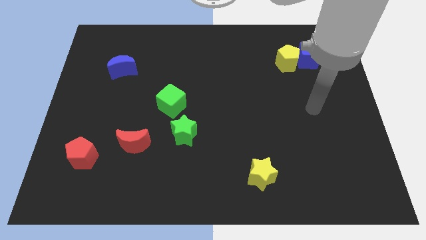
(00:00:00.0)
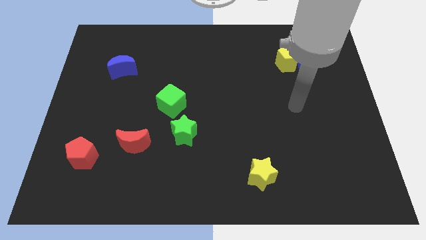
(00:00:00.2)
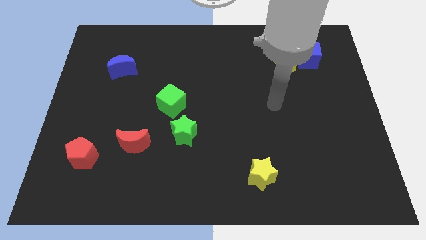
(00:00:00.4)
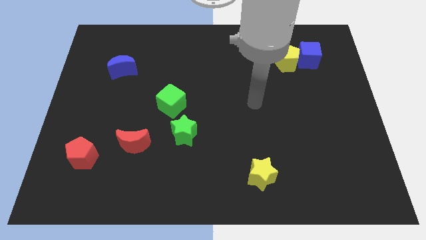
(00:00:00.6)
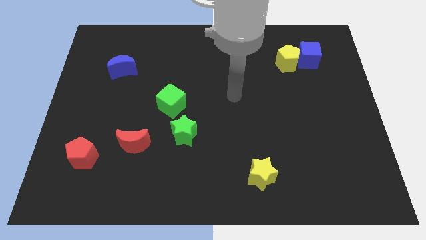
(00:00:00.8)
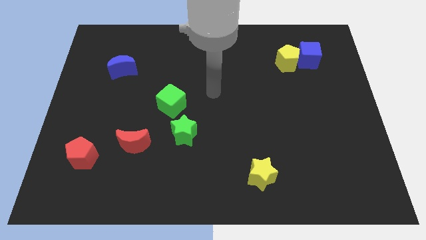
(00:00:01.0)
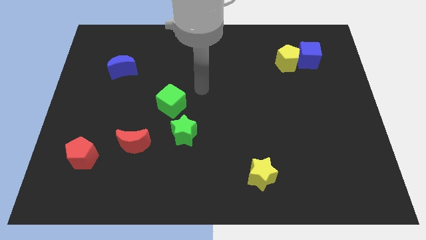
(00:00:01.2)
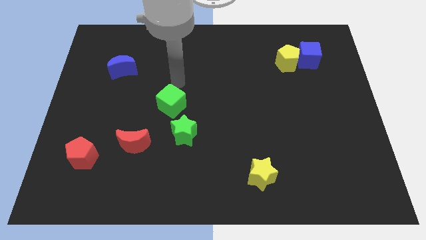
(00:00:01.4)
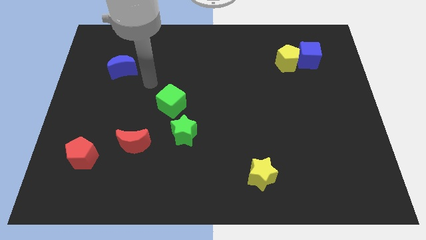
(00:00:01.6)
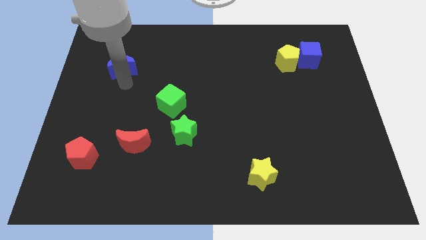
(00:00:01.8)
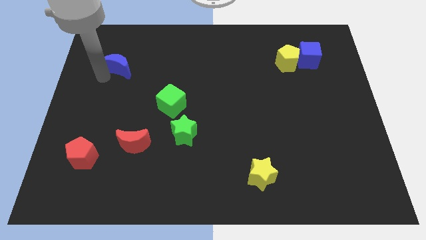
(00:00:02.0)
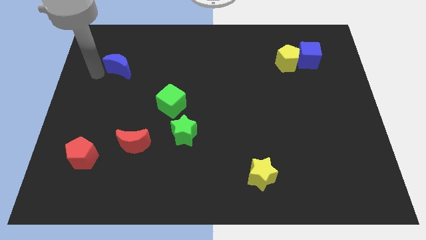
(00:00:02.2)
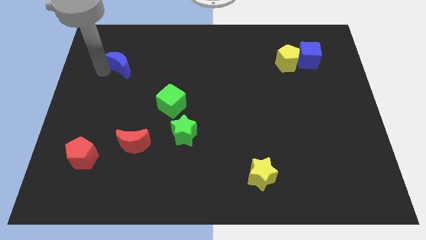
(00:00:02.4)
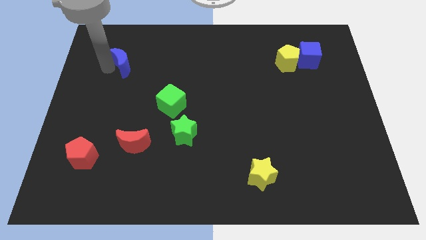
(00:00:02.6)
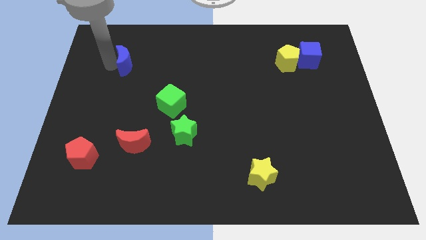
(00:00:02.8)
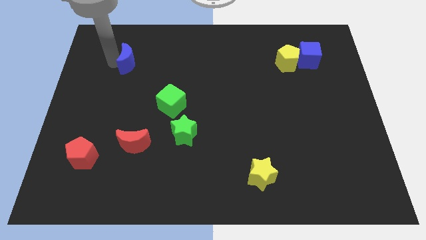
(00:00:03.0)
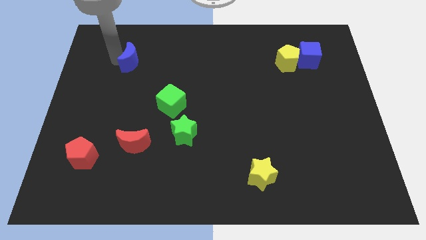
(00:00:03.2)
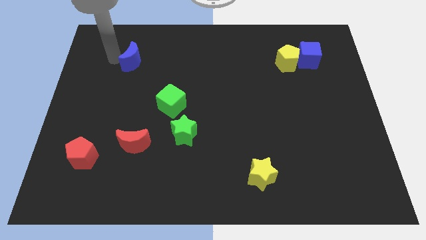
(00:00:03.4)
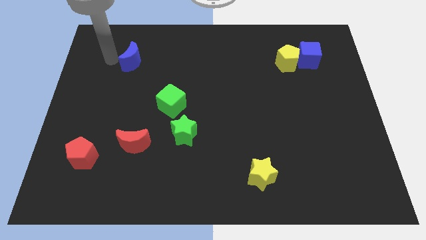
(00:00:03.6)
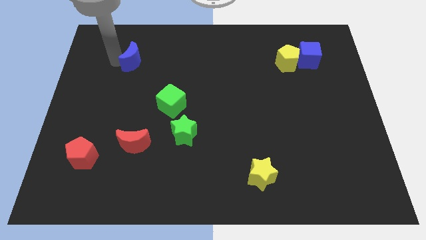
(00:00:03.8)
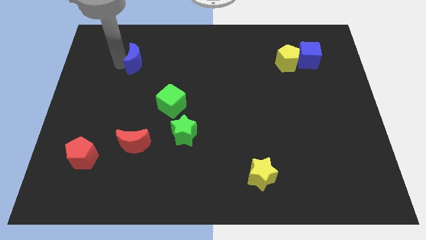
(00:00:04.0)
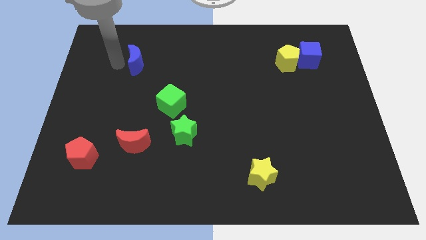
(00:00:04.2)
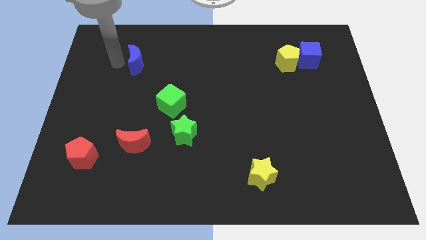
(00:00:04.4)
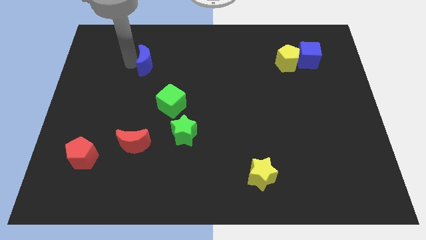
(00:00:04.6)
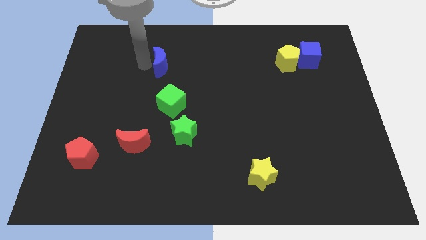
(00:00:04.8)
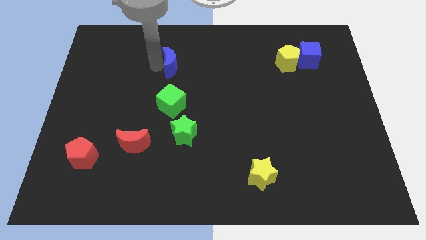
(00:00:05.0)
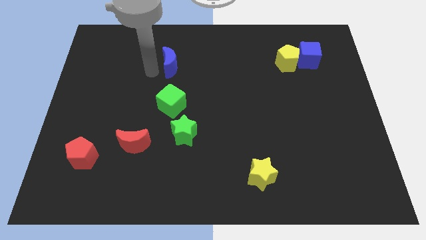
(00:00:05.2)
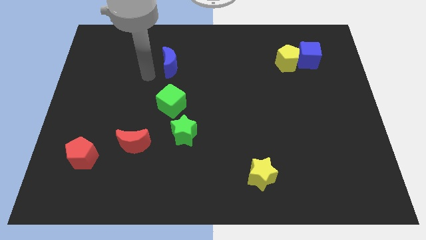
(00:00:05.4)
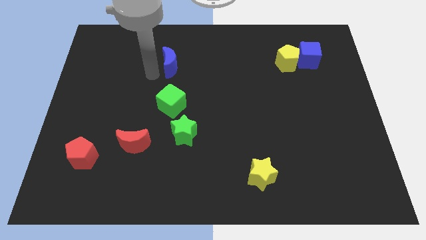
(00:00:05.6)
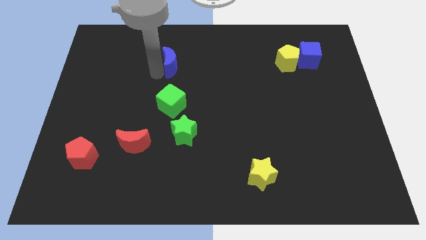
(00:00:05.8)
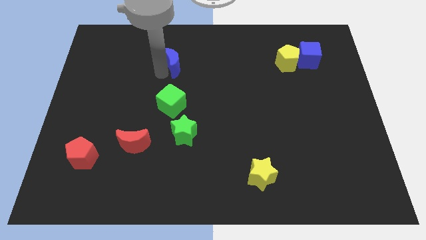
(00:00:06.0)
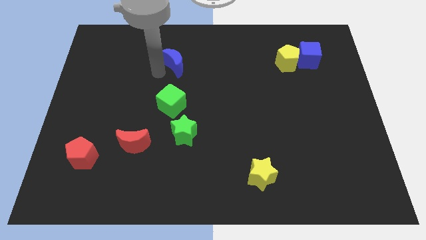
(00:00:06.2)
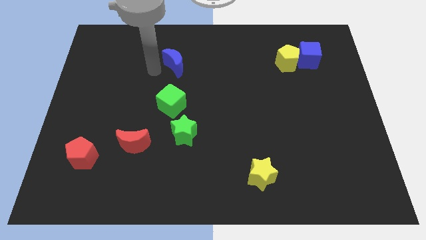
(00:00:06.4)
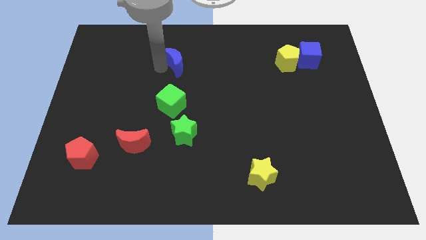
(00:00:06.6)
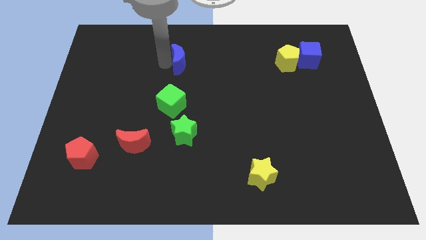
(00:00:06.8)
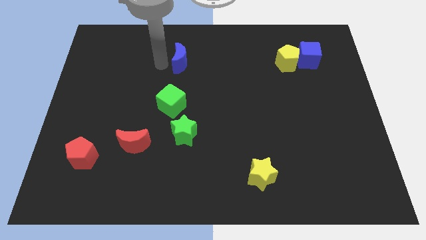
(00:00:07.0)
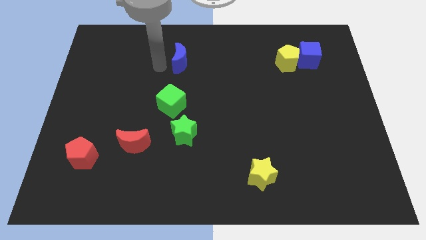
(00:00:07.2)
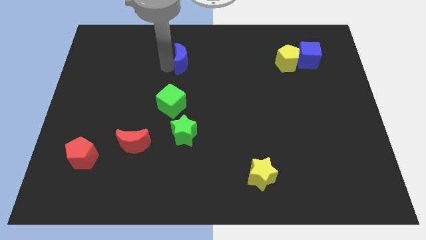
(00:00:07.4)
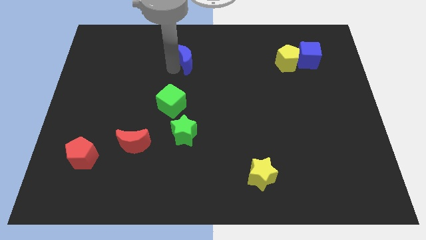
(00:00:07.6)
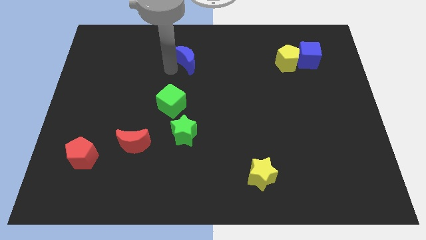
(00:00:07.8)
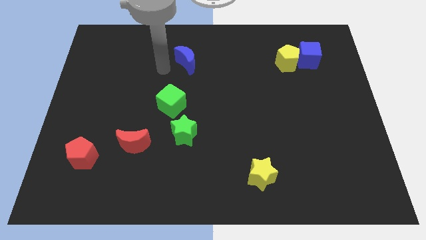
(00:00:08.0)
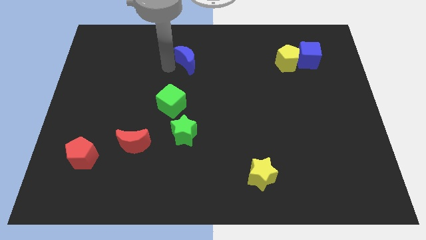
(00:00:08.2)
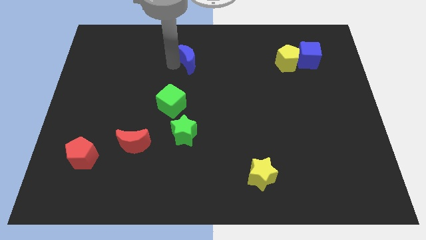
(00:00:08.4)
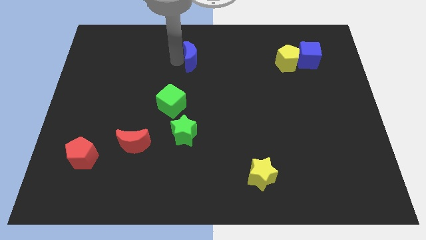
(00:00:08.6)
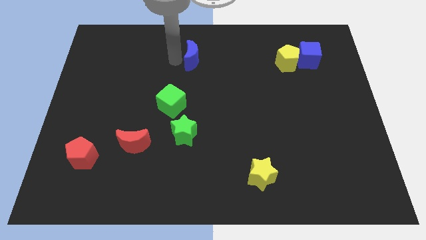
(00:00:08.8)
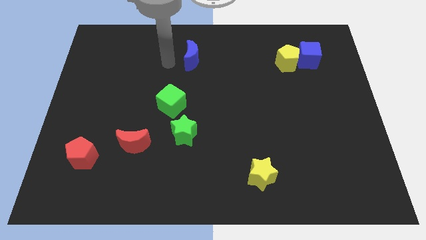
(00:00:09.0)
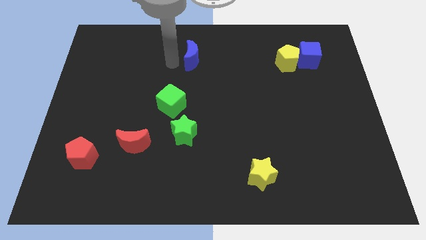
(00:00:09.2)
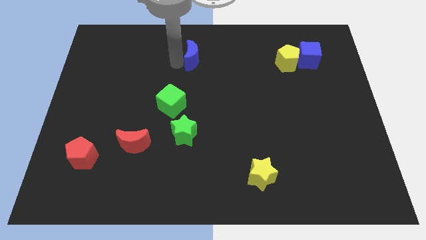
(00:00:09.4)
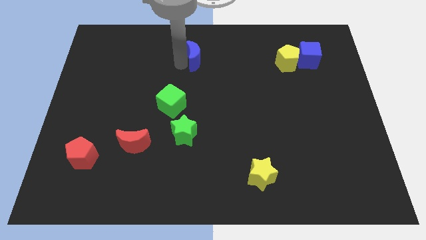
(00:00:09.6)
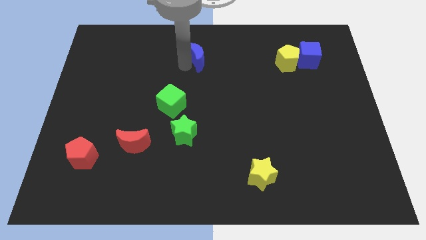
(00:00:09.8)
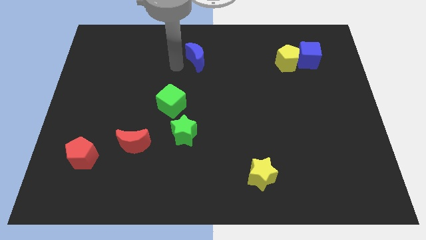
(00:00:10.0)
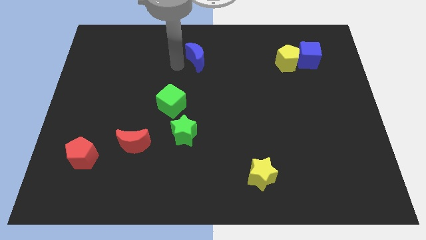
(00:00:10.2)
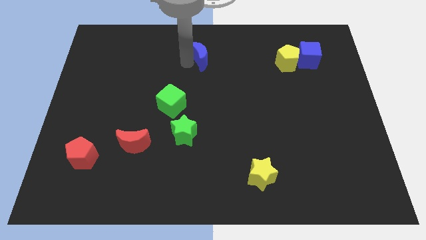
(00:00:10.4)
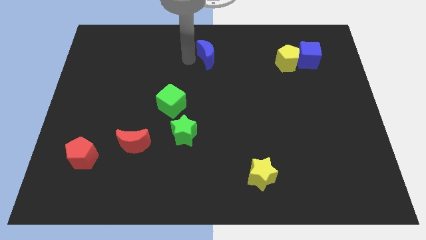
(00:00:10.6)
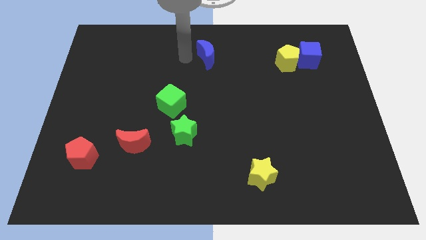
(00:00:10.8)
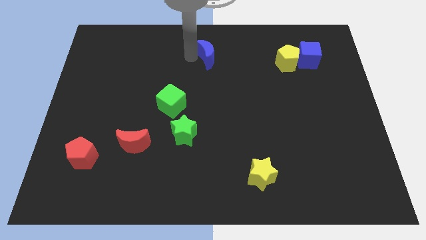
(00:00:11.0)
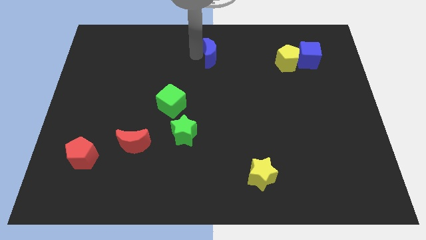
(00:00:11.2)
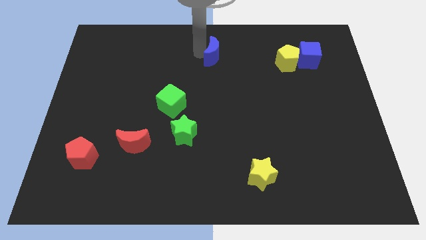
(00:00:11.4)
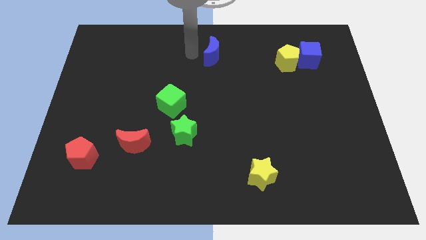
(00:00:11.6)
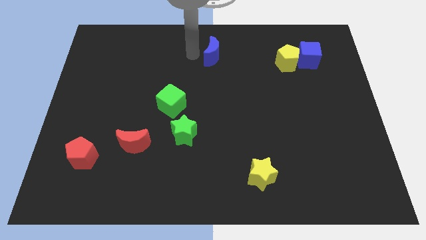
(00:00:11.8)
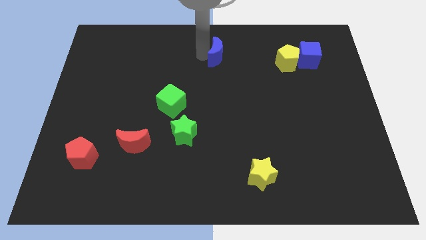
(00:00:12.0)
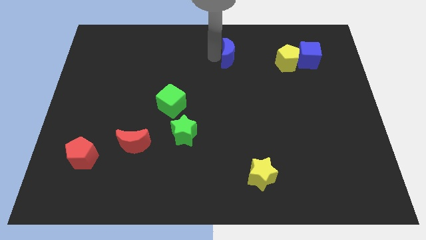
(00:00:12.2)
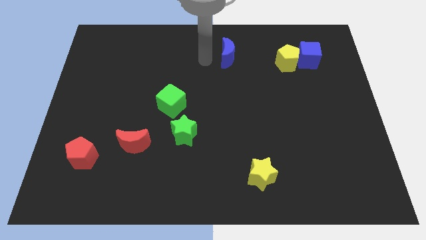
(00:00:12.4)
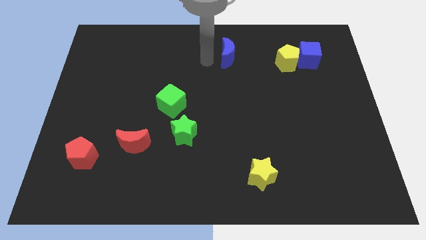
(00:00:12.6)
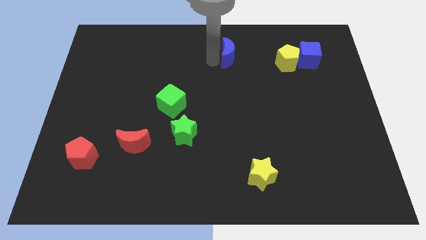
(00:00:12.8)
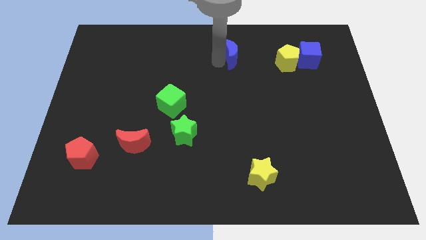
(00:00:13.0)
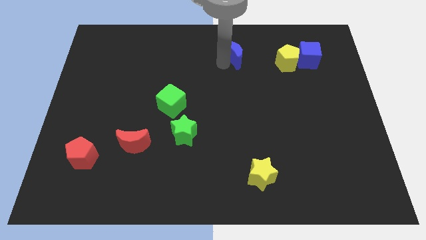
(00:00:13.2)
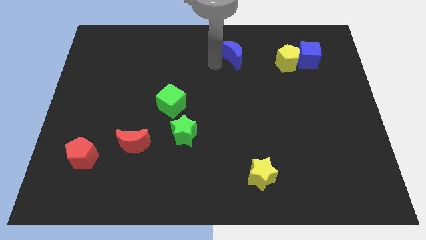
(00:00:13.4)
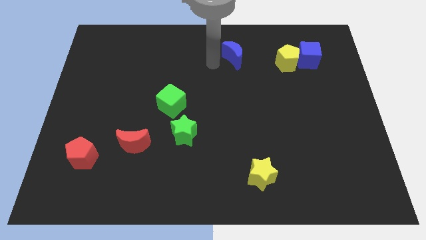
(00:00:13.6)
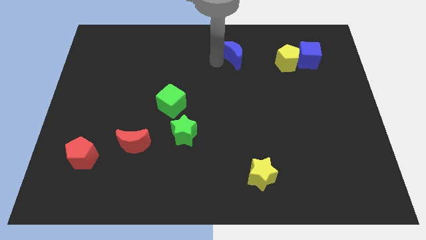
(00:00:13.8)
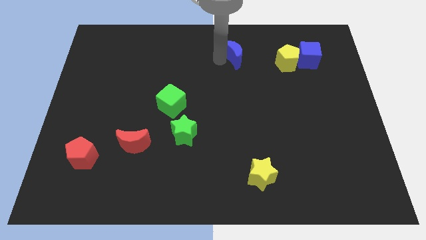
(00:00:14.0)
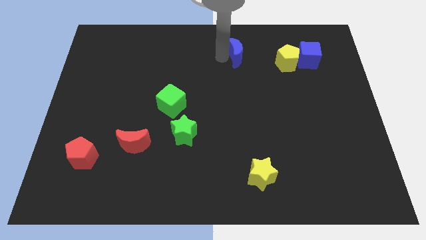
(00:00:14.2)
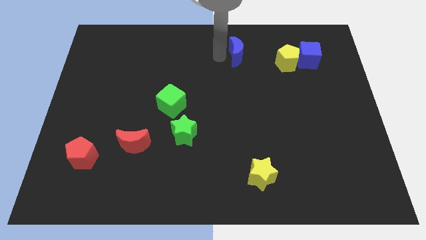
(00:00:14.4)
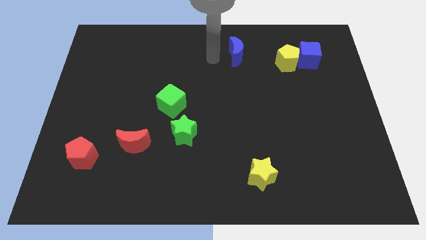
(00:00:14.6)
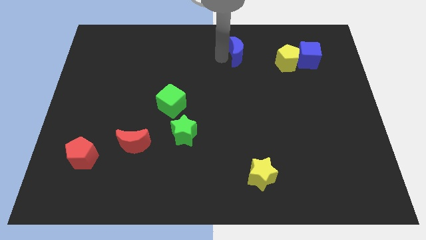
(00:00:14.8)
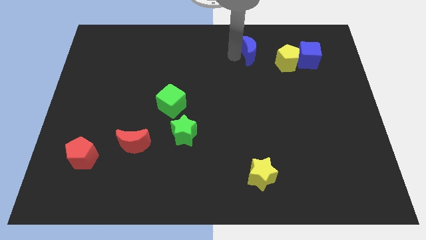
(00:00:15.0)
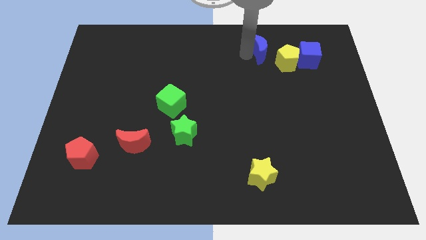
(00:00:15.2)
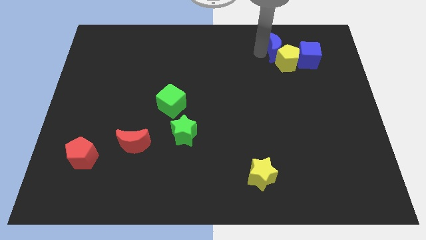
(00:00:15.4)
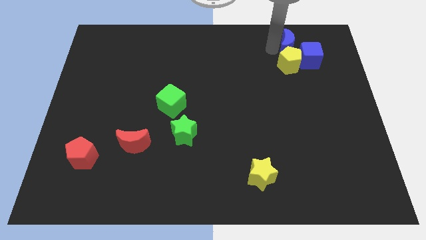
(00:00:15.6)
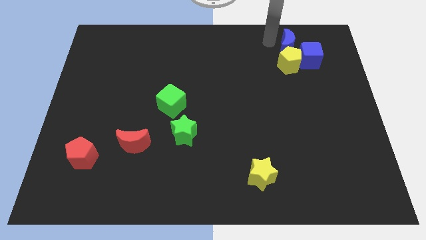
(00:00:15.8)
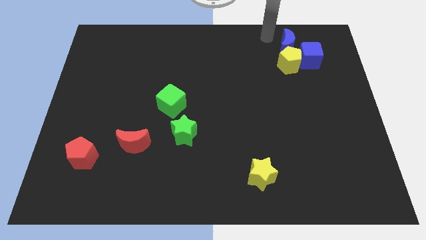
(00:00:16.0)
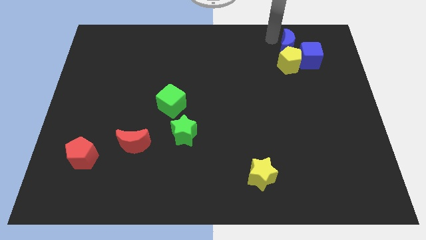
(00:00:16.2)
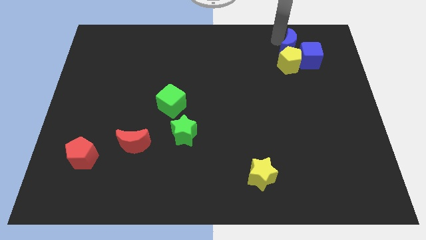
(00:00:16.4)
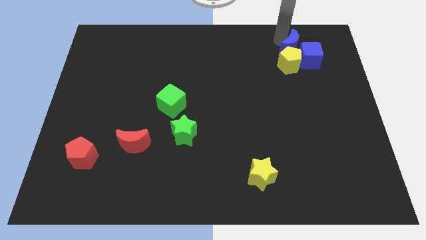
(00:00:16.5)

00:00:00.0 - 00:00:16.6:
move the blue moon close to the blue cube
